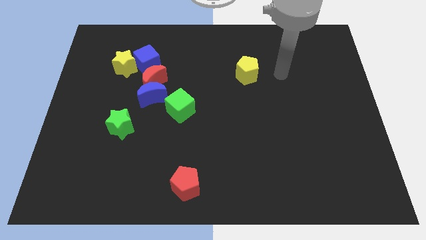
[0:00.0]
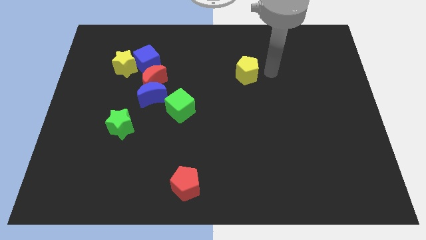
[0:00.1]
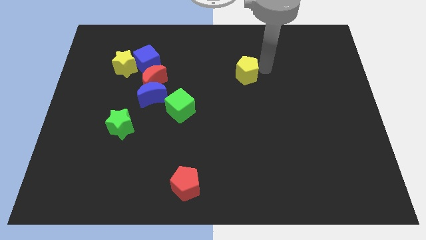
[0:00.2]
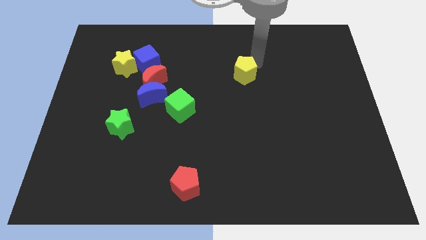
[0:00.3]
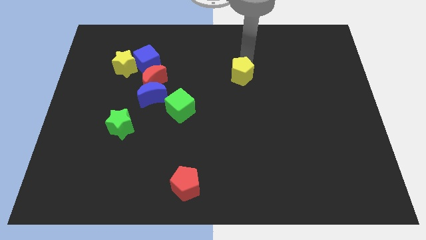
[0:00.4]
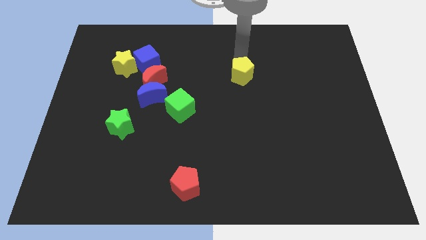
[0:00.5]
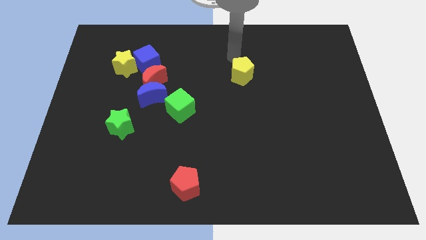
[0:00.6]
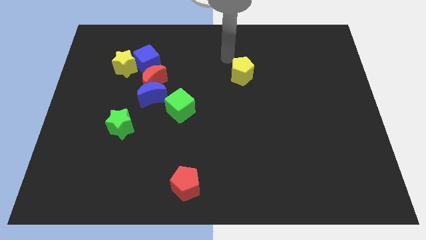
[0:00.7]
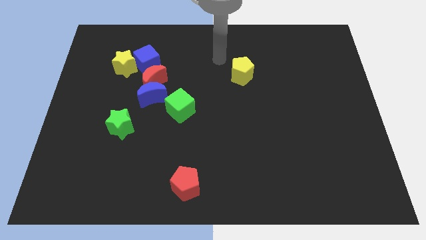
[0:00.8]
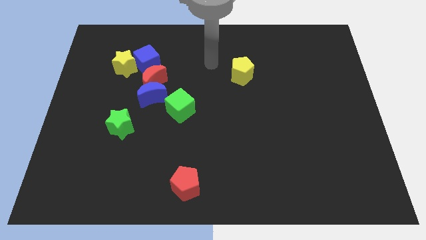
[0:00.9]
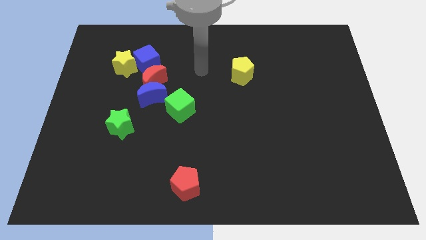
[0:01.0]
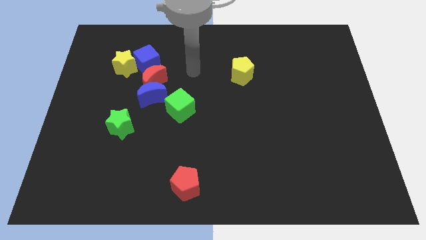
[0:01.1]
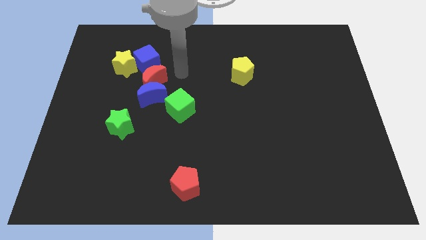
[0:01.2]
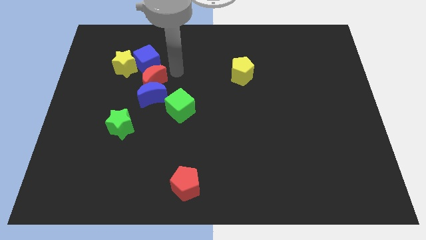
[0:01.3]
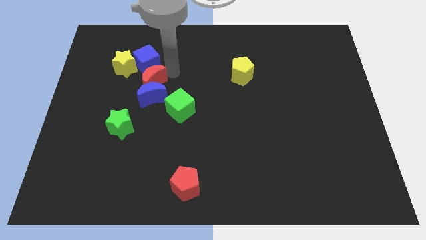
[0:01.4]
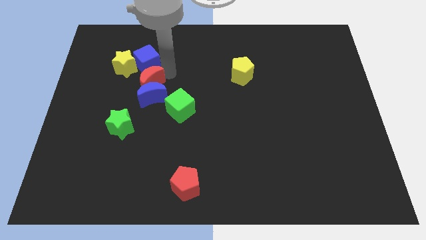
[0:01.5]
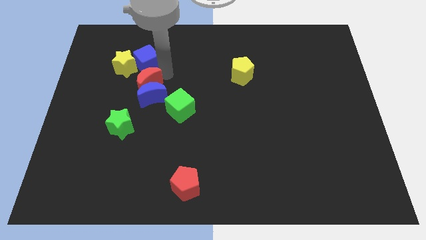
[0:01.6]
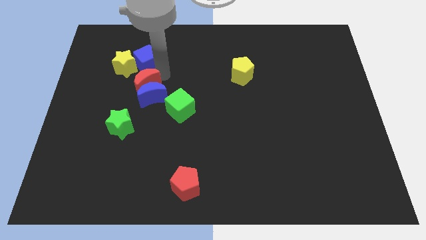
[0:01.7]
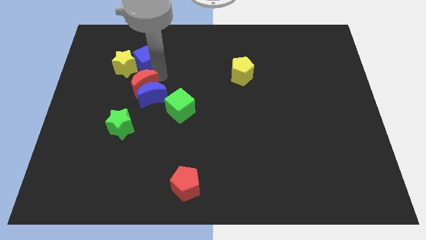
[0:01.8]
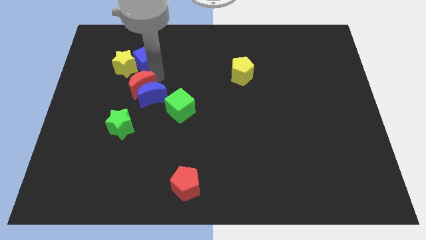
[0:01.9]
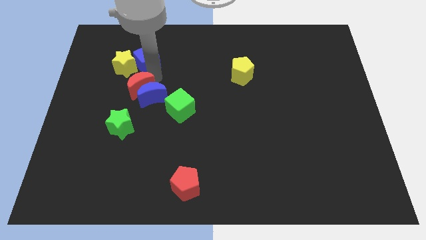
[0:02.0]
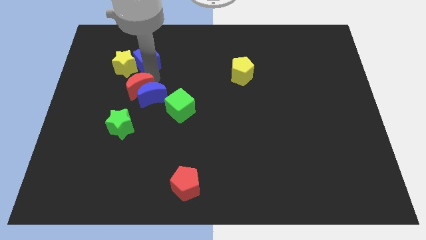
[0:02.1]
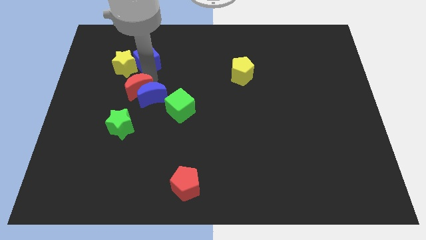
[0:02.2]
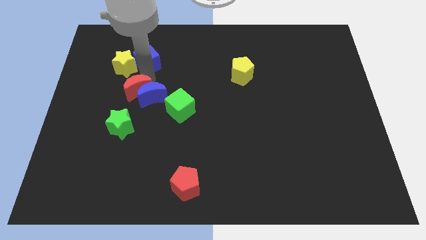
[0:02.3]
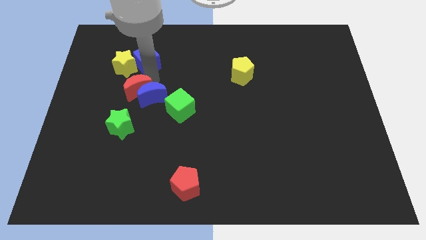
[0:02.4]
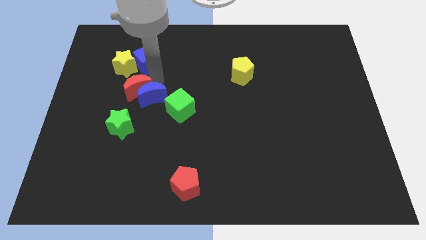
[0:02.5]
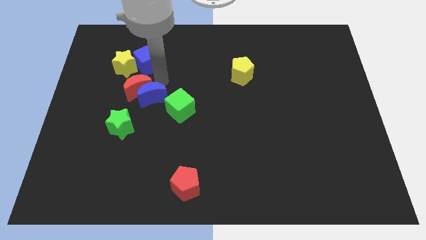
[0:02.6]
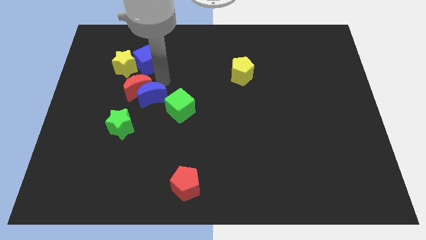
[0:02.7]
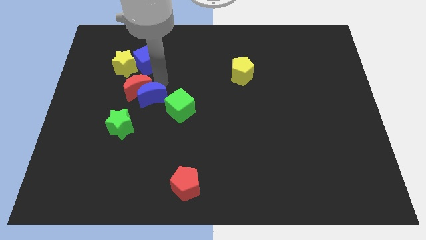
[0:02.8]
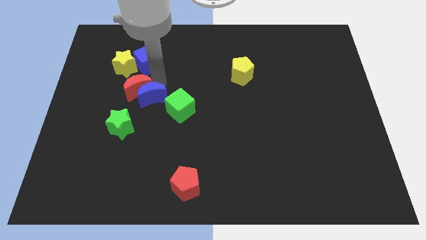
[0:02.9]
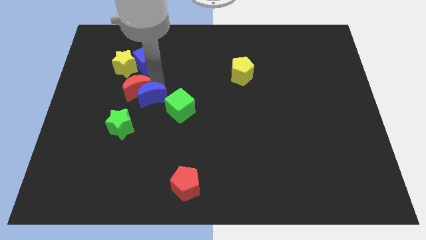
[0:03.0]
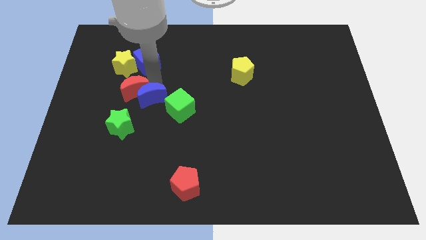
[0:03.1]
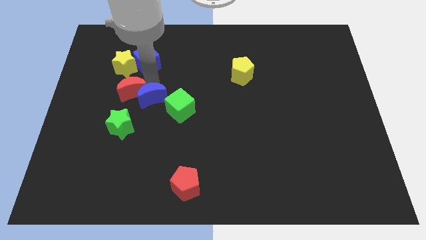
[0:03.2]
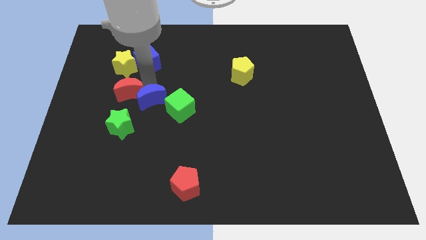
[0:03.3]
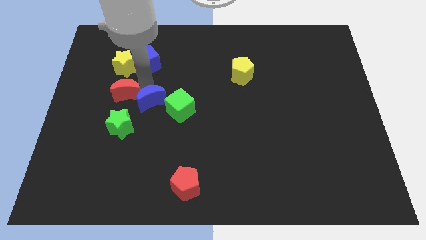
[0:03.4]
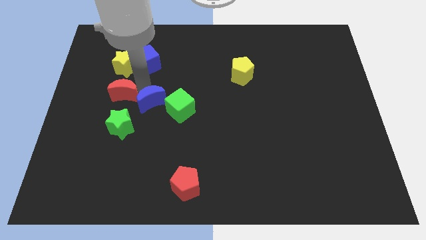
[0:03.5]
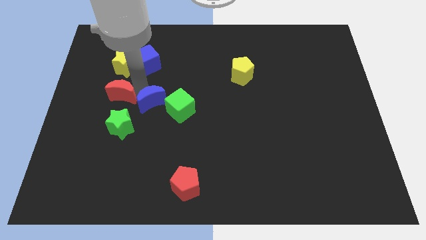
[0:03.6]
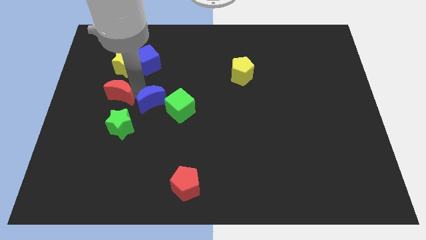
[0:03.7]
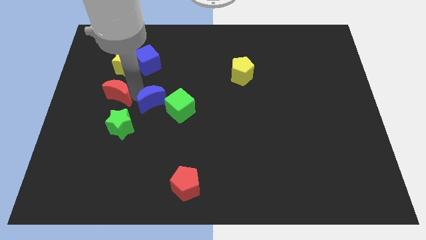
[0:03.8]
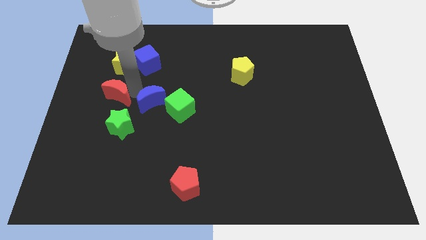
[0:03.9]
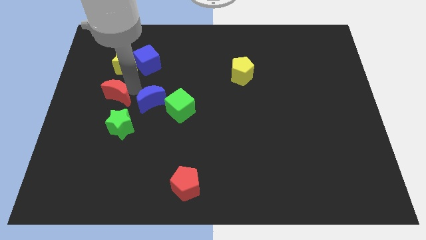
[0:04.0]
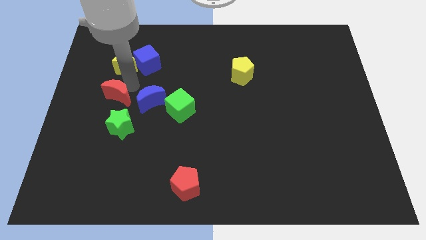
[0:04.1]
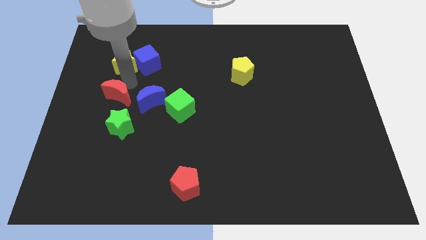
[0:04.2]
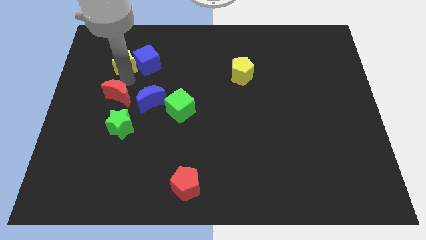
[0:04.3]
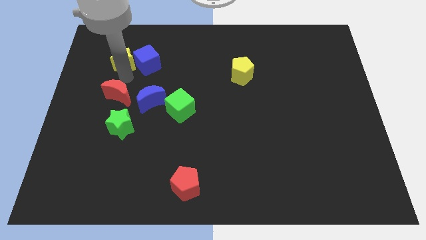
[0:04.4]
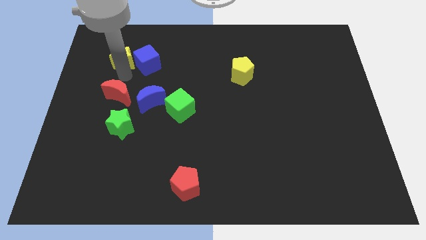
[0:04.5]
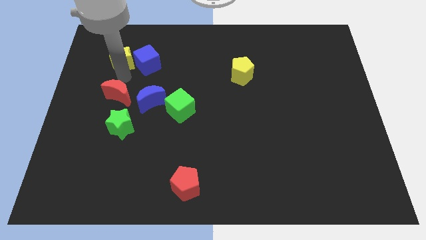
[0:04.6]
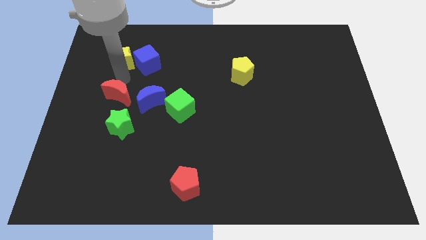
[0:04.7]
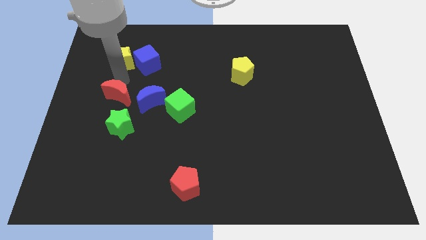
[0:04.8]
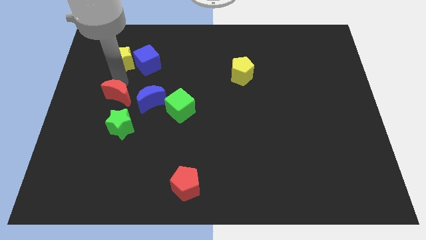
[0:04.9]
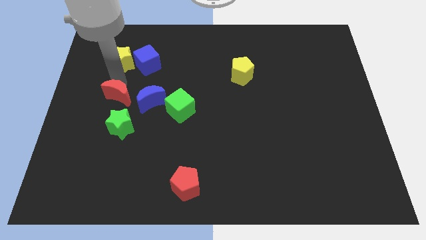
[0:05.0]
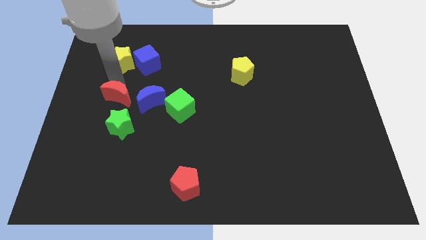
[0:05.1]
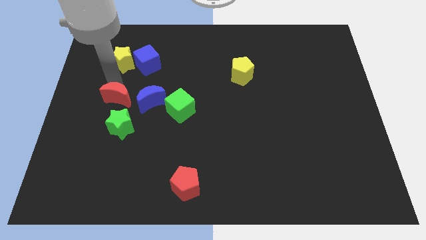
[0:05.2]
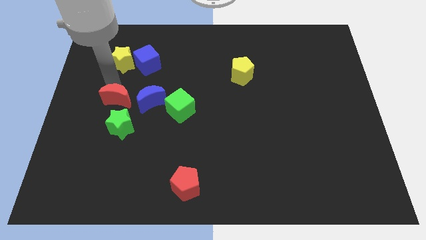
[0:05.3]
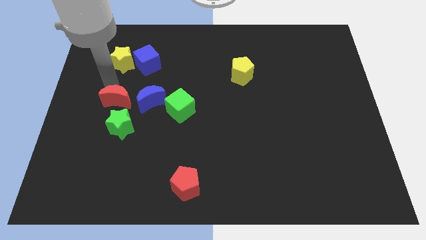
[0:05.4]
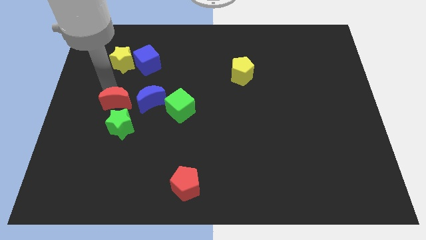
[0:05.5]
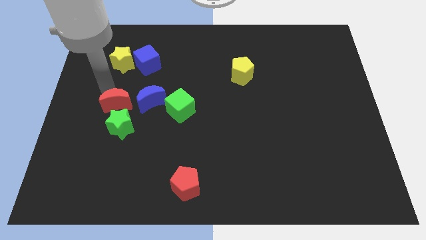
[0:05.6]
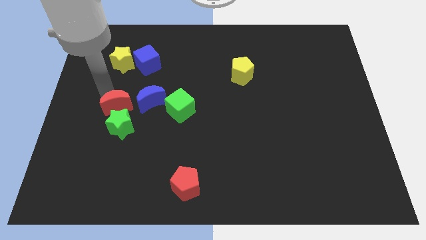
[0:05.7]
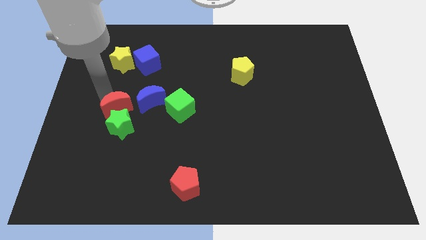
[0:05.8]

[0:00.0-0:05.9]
slide the red moon towards the green star

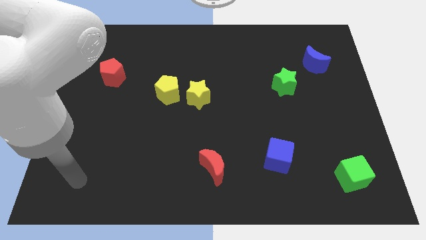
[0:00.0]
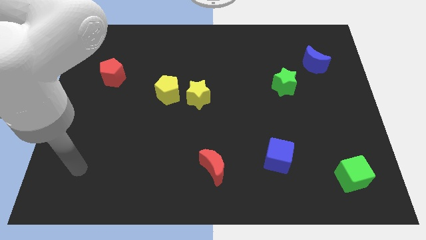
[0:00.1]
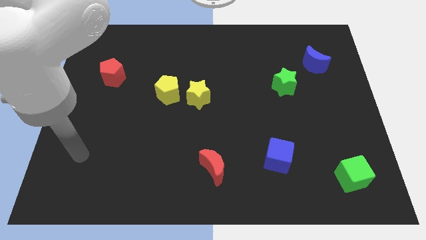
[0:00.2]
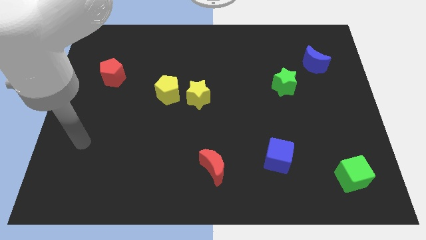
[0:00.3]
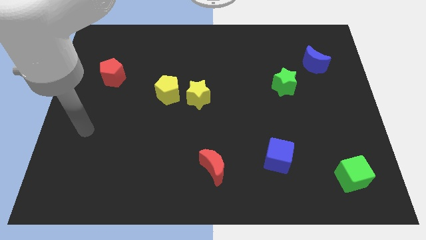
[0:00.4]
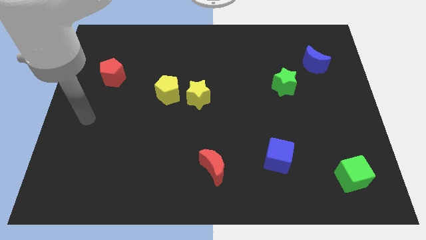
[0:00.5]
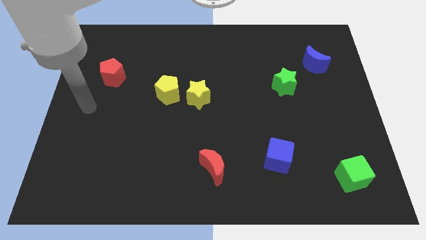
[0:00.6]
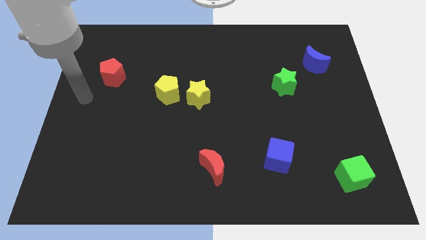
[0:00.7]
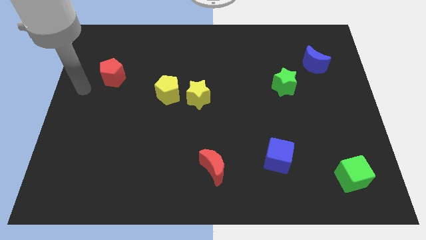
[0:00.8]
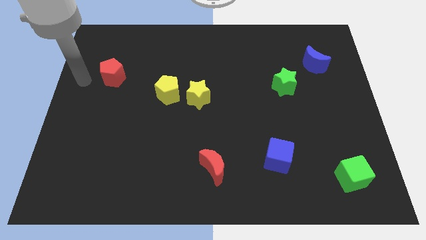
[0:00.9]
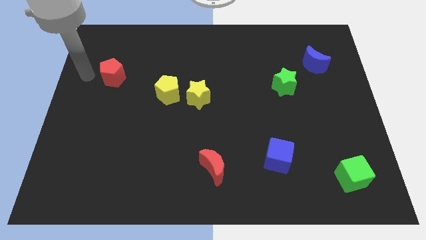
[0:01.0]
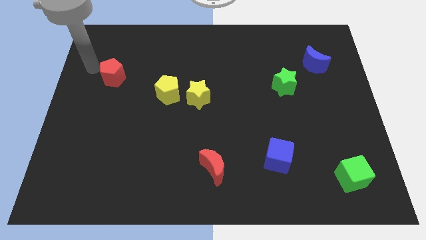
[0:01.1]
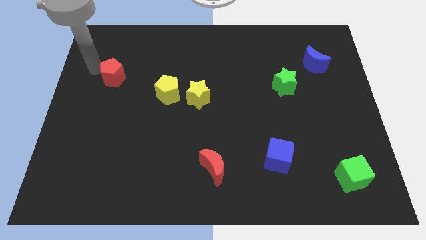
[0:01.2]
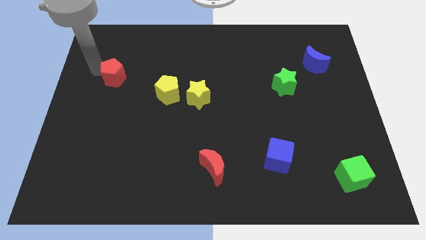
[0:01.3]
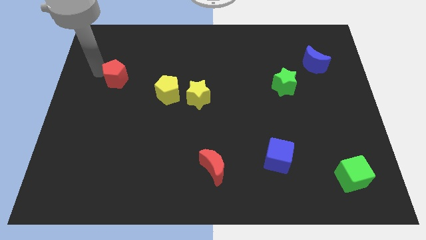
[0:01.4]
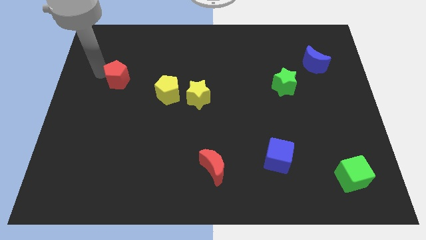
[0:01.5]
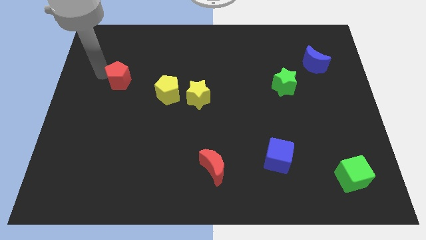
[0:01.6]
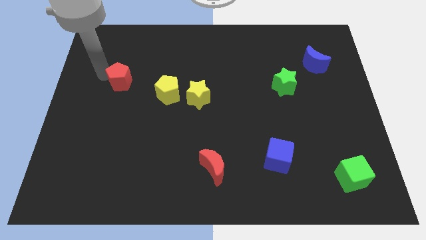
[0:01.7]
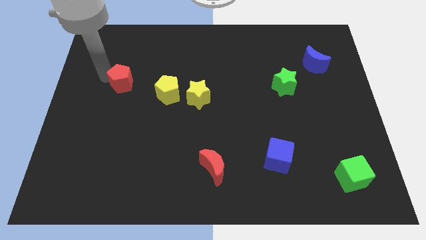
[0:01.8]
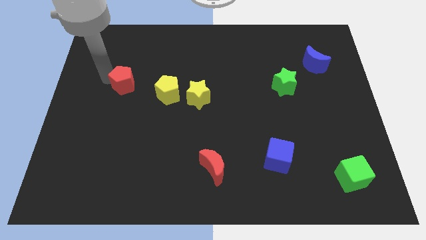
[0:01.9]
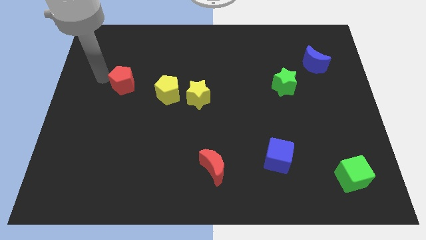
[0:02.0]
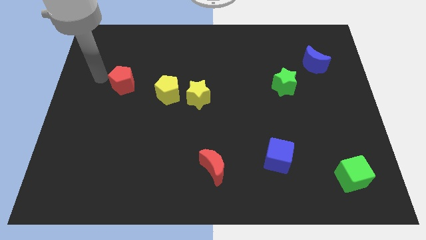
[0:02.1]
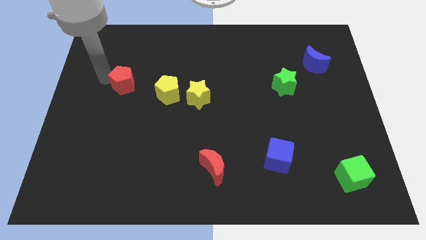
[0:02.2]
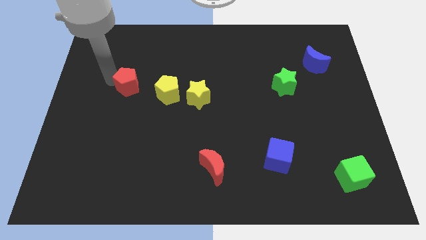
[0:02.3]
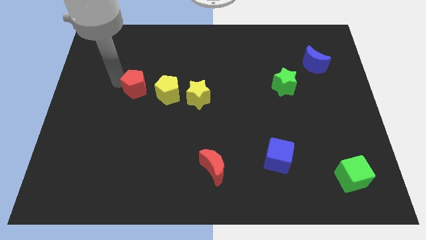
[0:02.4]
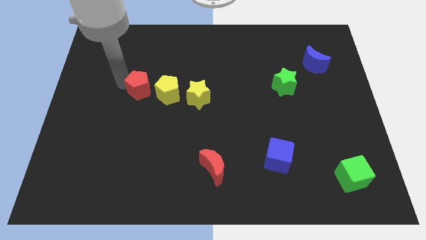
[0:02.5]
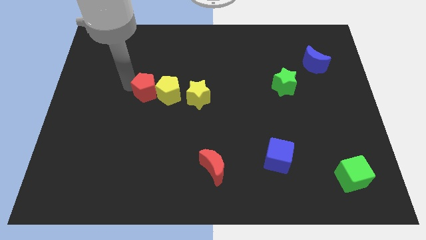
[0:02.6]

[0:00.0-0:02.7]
push the red pentagon towards the yellow pentagon
